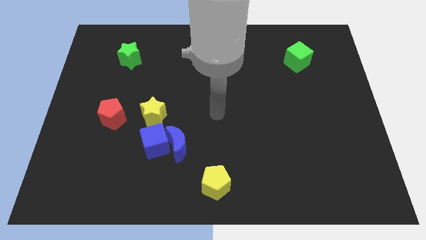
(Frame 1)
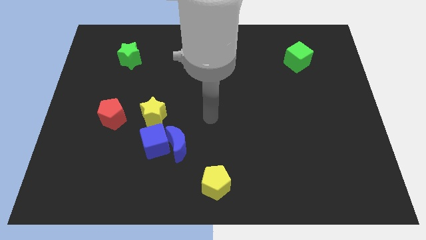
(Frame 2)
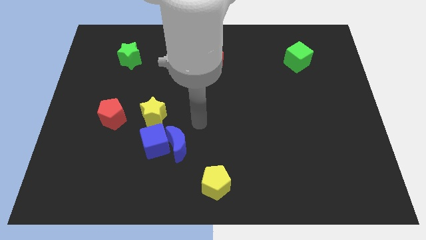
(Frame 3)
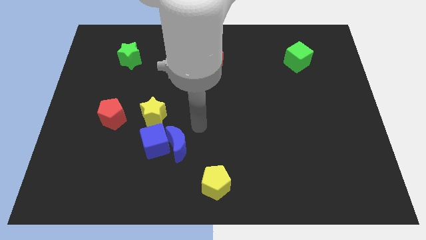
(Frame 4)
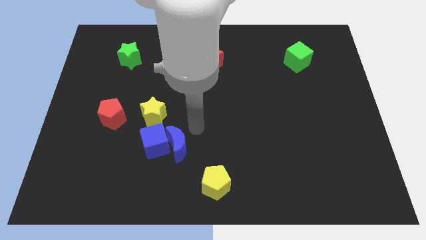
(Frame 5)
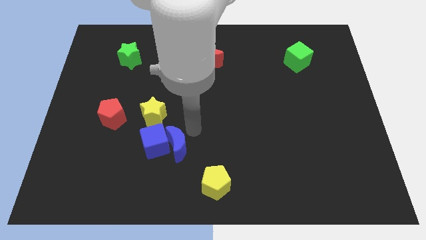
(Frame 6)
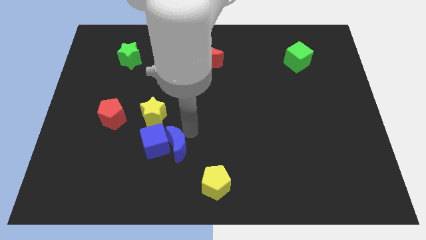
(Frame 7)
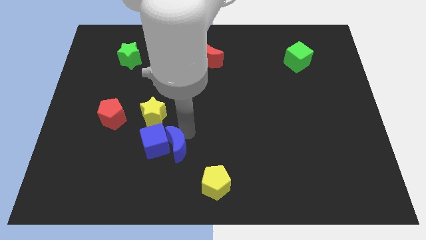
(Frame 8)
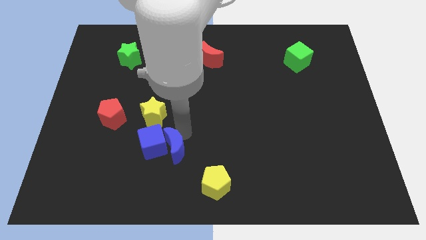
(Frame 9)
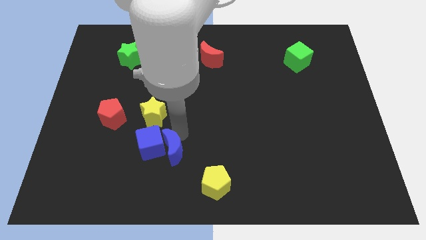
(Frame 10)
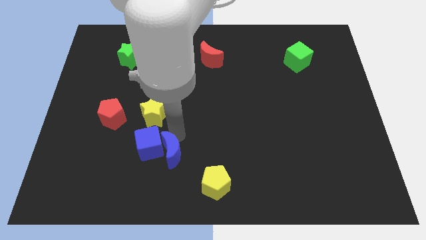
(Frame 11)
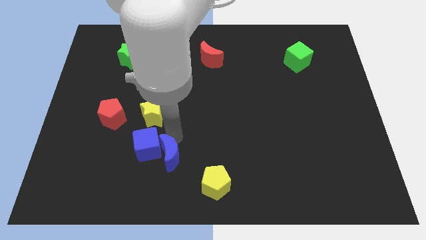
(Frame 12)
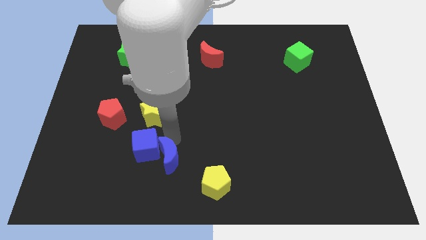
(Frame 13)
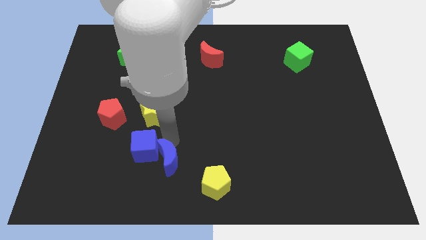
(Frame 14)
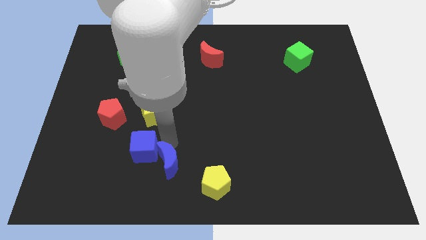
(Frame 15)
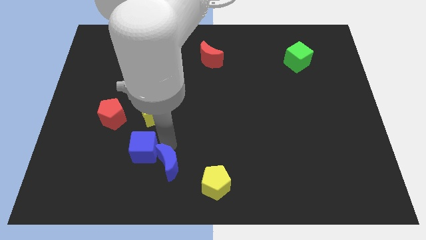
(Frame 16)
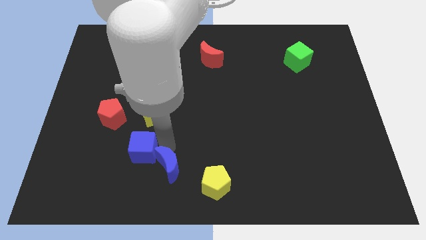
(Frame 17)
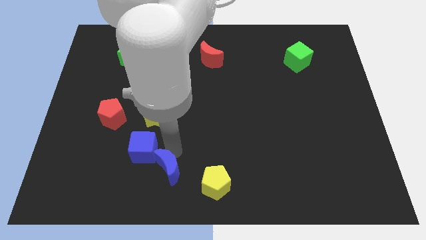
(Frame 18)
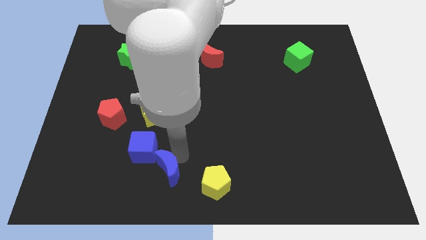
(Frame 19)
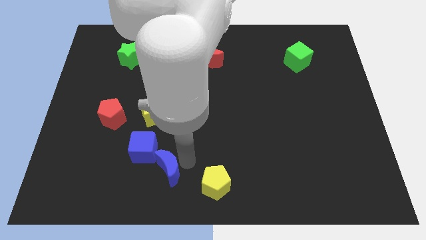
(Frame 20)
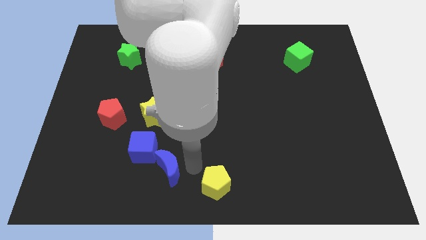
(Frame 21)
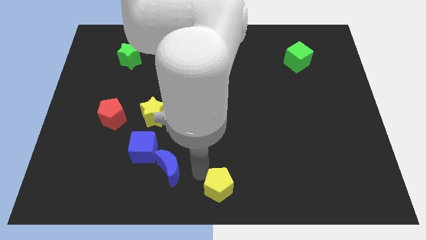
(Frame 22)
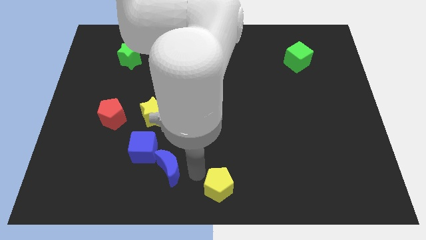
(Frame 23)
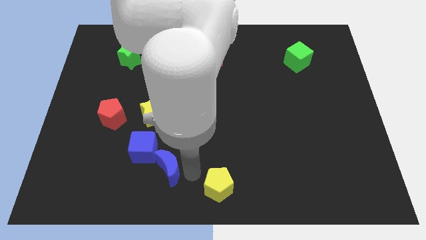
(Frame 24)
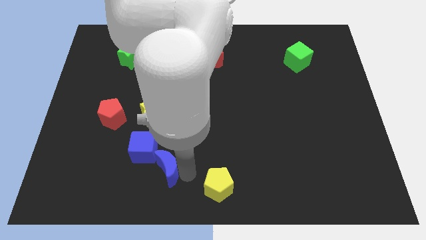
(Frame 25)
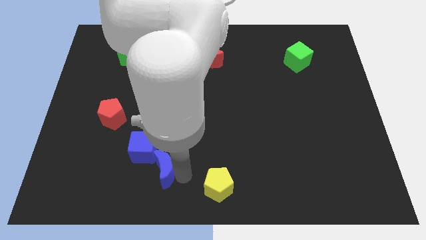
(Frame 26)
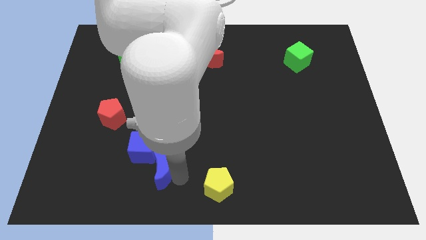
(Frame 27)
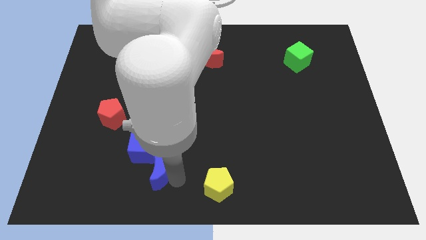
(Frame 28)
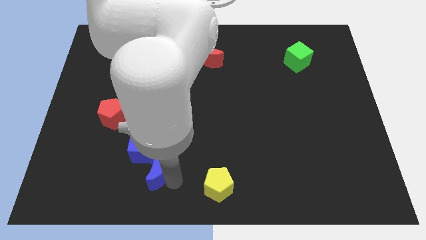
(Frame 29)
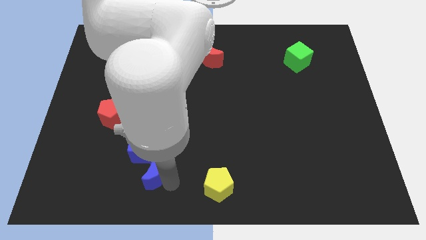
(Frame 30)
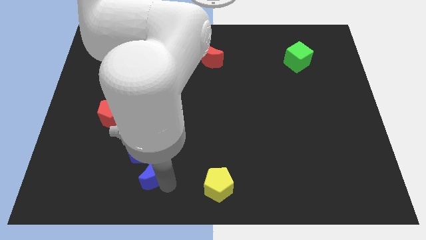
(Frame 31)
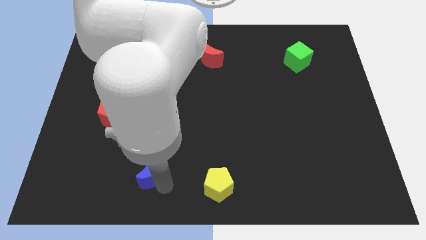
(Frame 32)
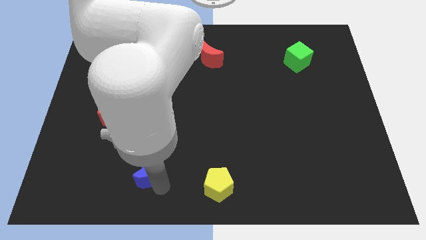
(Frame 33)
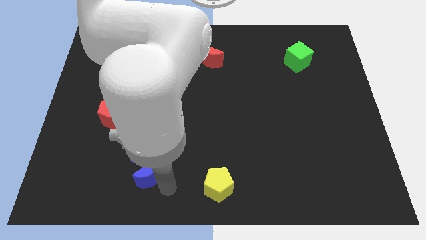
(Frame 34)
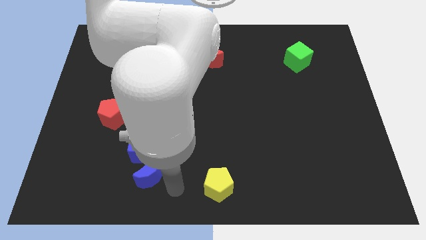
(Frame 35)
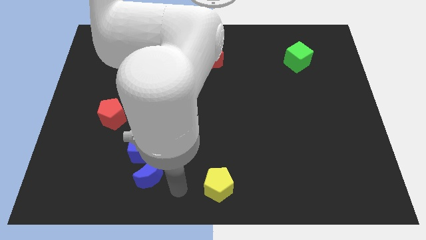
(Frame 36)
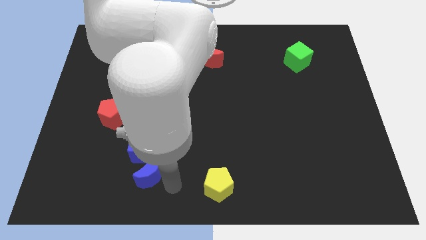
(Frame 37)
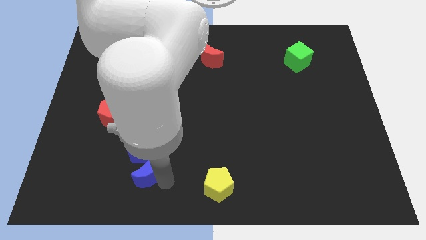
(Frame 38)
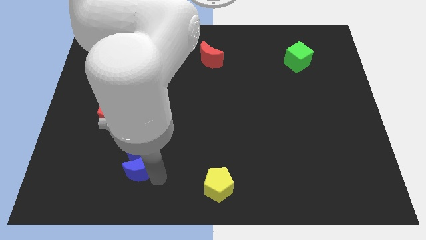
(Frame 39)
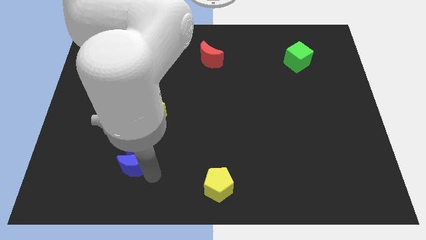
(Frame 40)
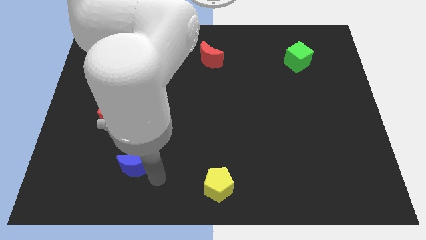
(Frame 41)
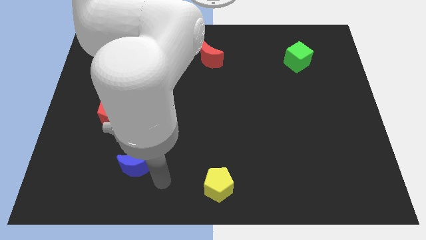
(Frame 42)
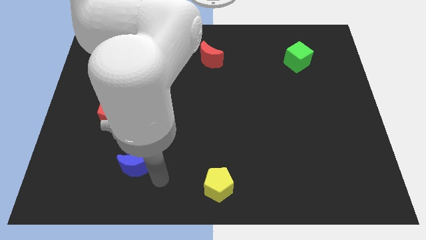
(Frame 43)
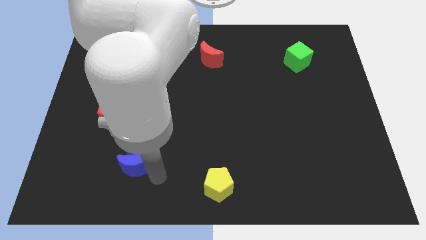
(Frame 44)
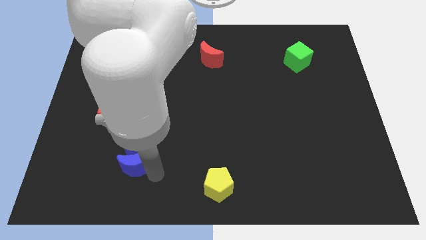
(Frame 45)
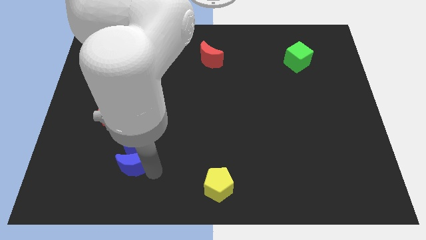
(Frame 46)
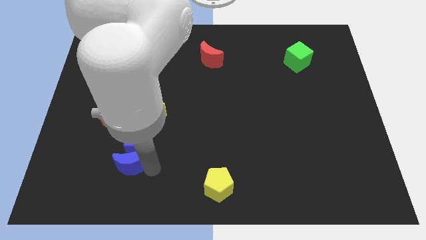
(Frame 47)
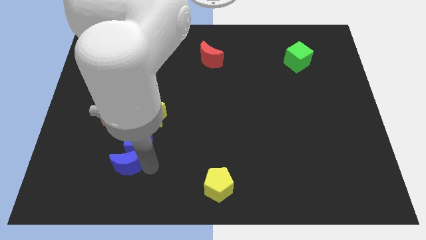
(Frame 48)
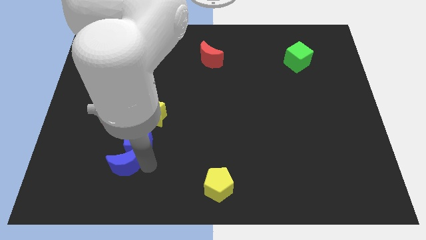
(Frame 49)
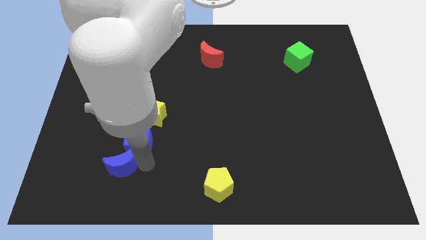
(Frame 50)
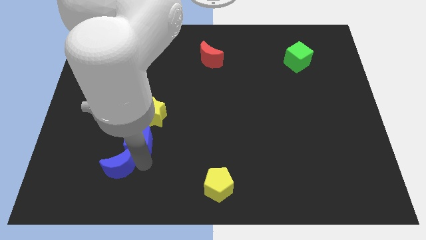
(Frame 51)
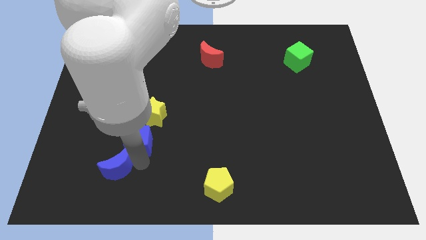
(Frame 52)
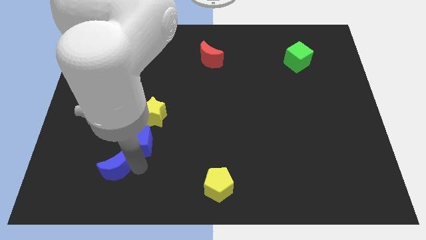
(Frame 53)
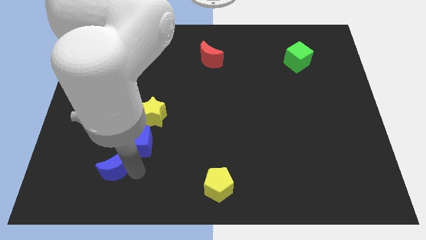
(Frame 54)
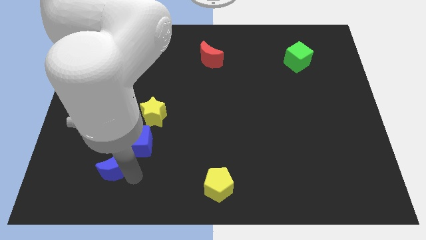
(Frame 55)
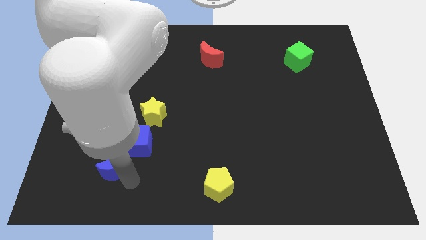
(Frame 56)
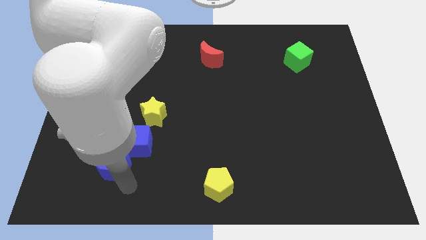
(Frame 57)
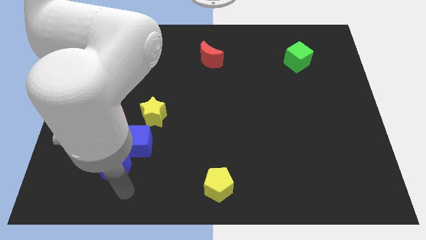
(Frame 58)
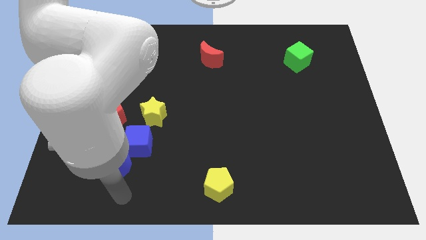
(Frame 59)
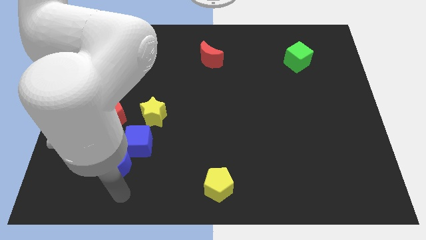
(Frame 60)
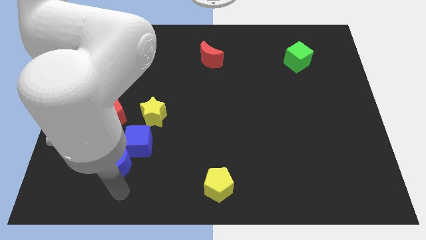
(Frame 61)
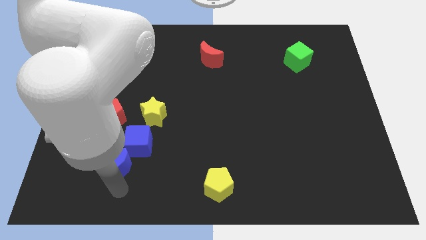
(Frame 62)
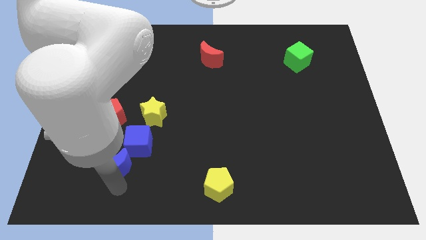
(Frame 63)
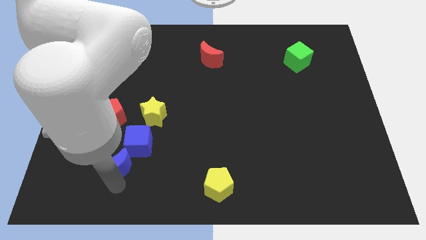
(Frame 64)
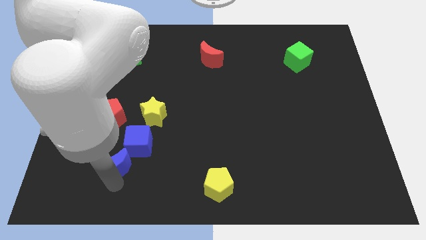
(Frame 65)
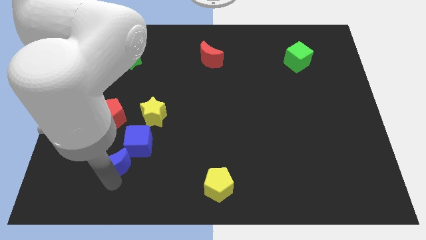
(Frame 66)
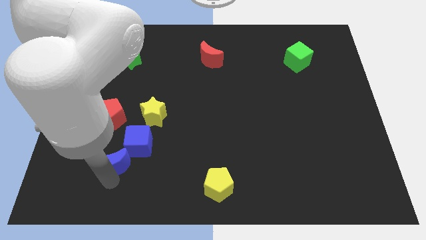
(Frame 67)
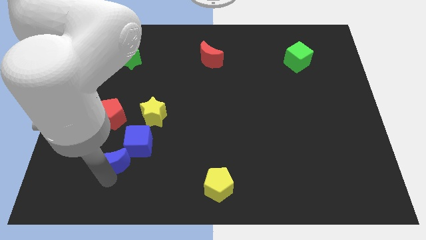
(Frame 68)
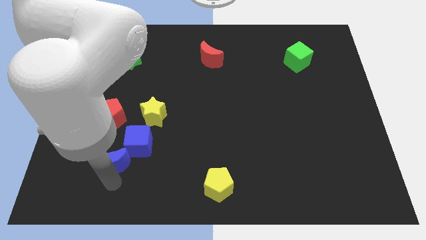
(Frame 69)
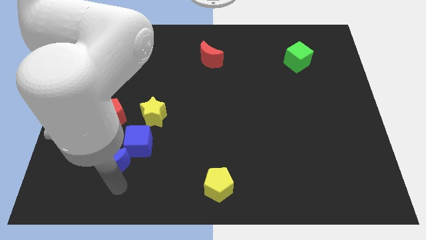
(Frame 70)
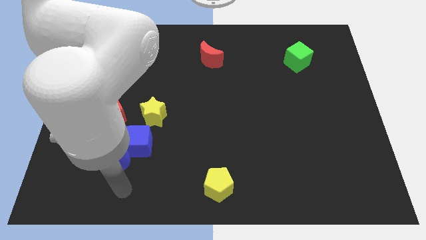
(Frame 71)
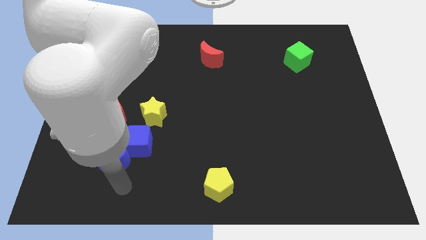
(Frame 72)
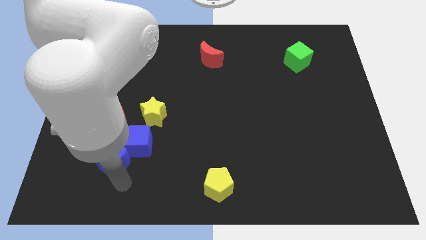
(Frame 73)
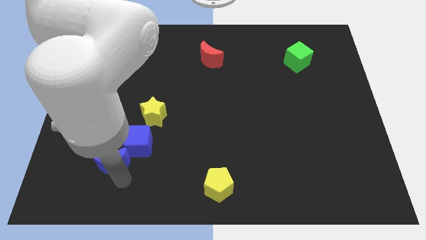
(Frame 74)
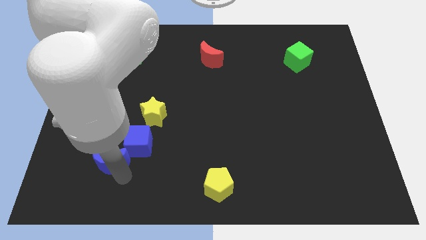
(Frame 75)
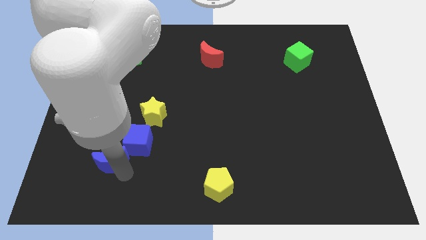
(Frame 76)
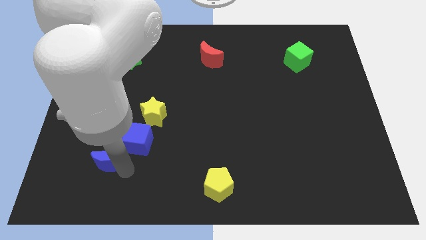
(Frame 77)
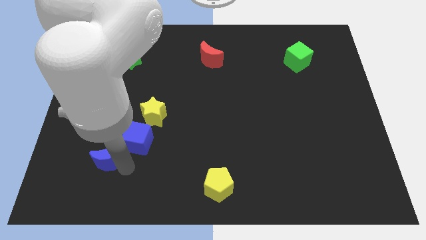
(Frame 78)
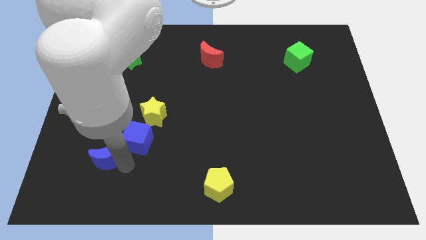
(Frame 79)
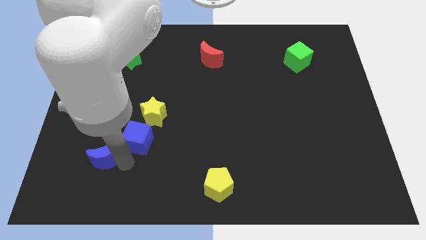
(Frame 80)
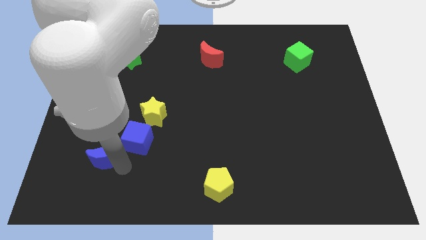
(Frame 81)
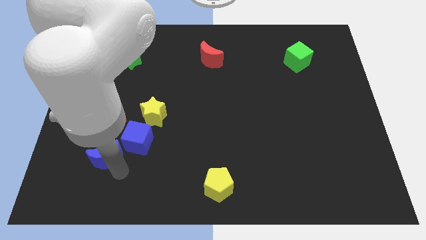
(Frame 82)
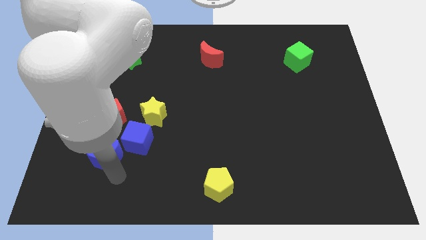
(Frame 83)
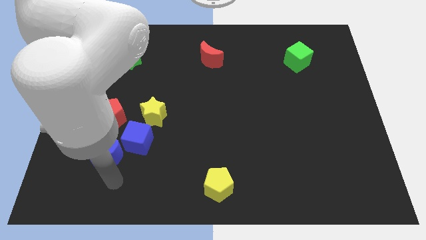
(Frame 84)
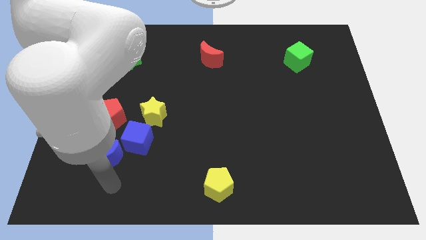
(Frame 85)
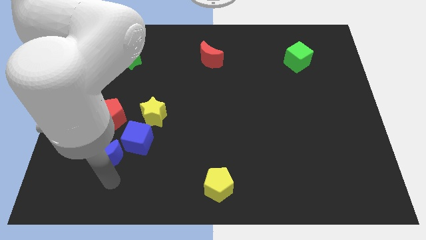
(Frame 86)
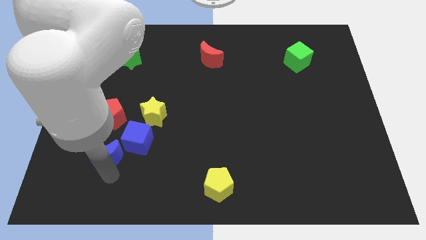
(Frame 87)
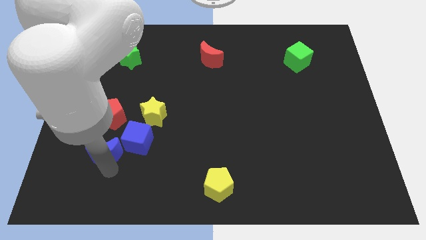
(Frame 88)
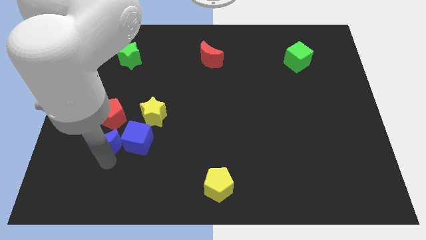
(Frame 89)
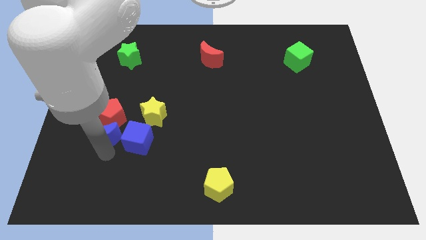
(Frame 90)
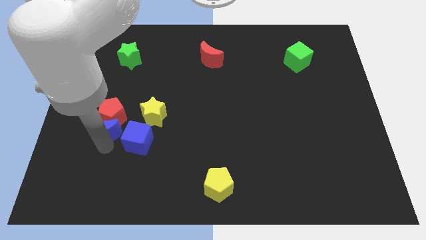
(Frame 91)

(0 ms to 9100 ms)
move the blue moon left of the yellow star
